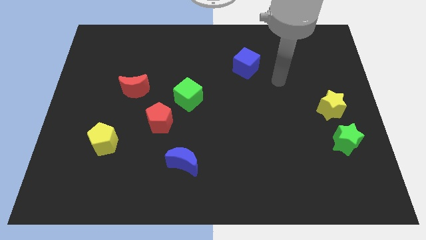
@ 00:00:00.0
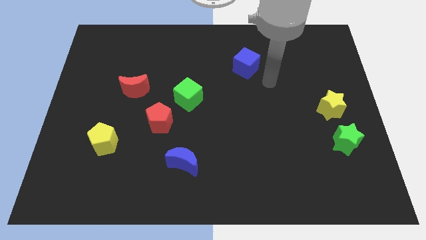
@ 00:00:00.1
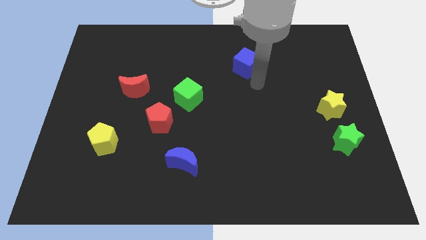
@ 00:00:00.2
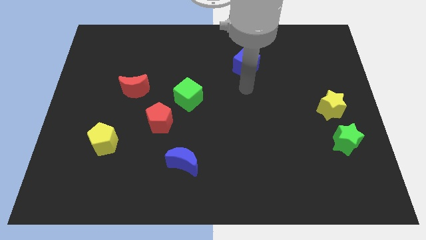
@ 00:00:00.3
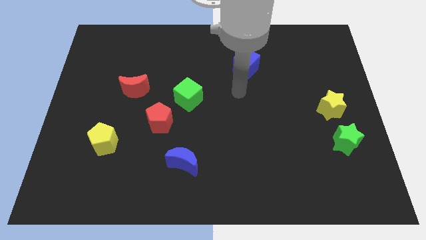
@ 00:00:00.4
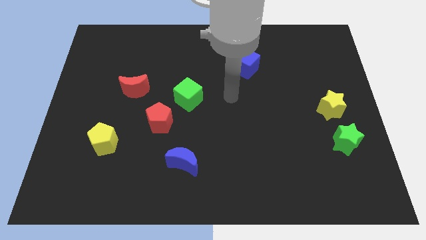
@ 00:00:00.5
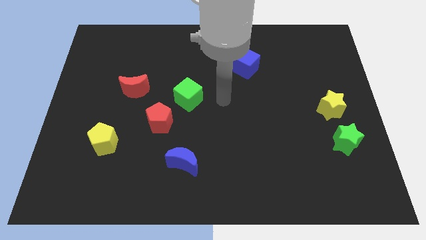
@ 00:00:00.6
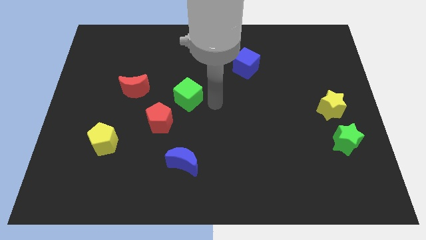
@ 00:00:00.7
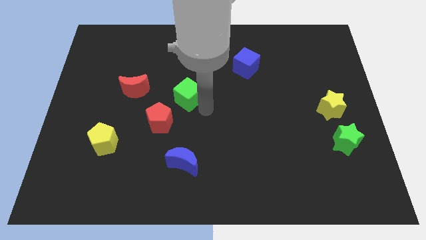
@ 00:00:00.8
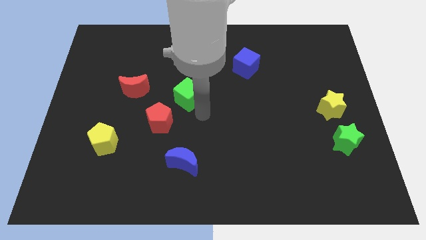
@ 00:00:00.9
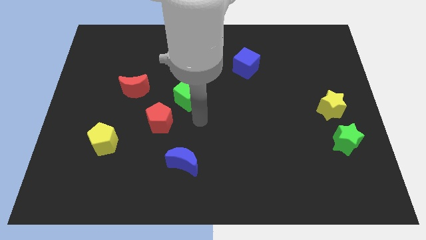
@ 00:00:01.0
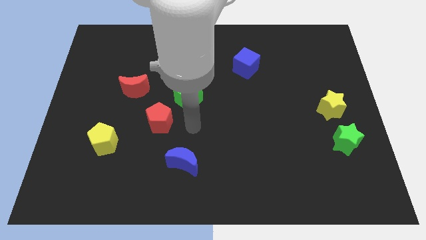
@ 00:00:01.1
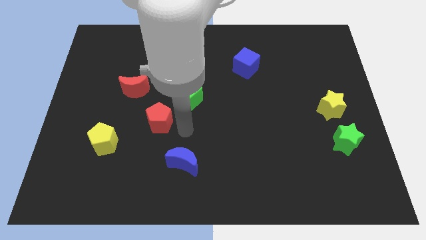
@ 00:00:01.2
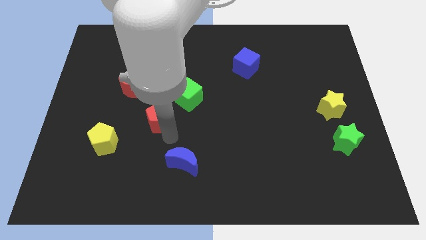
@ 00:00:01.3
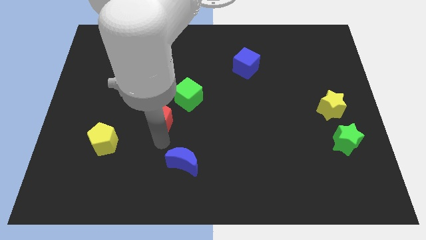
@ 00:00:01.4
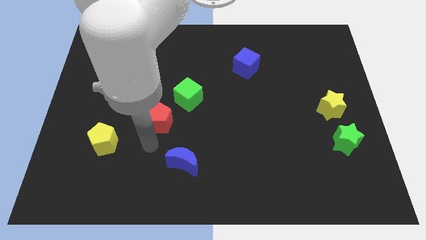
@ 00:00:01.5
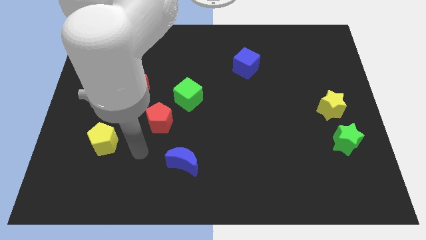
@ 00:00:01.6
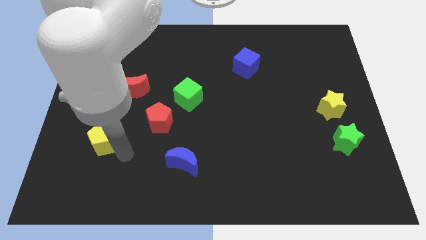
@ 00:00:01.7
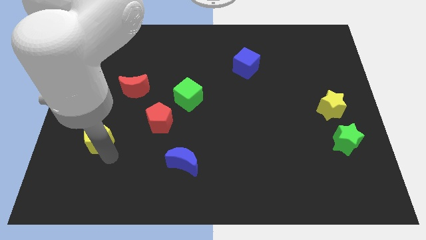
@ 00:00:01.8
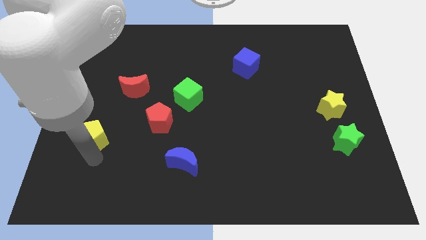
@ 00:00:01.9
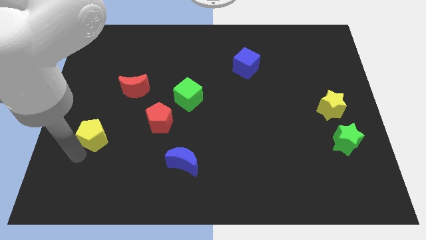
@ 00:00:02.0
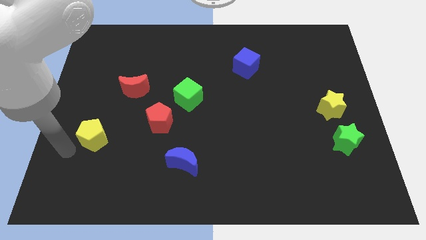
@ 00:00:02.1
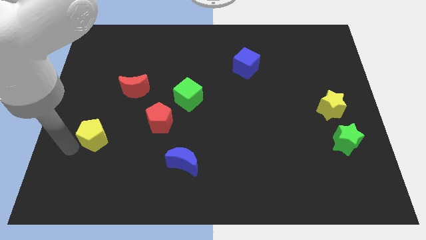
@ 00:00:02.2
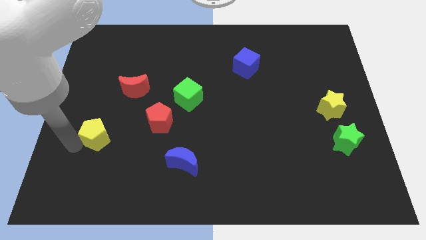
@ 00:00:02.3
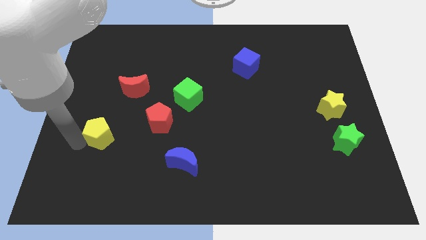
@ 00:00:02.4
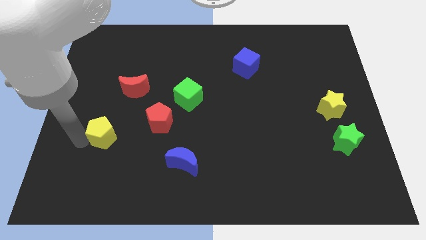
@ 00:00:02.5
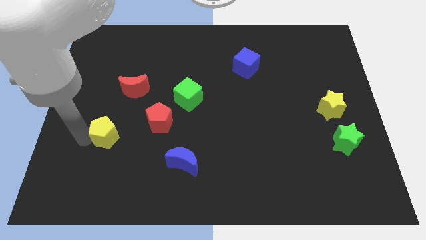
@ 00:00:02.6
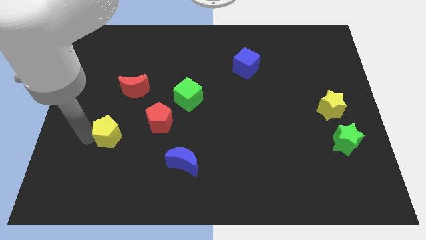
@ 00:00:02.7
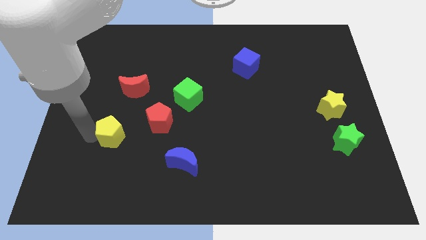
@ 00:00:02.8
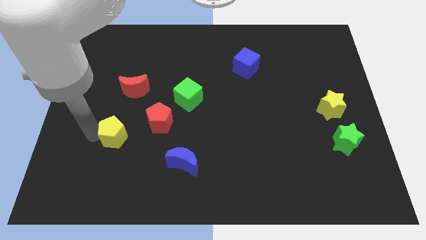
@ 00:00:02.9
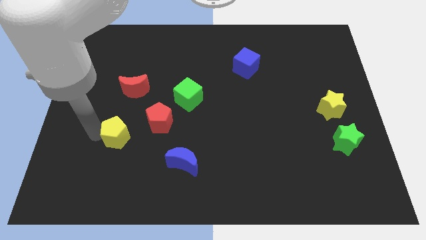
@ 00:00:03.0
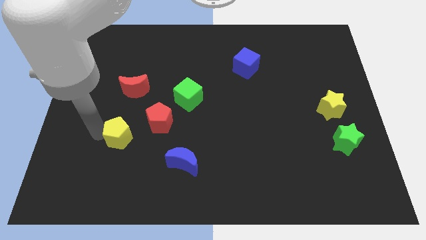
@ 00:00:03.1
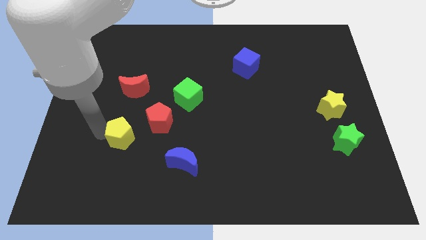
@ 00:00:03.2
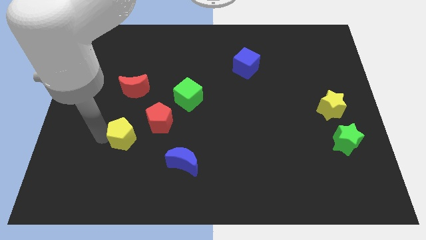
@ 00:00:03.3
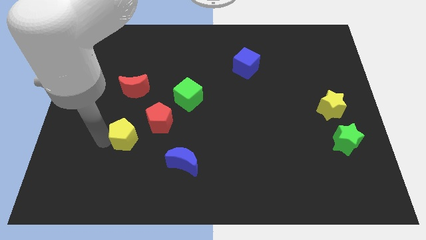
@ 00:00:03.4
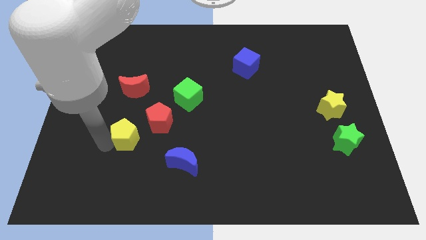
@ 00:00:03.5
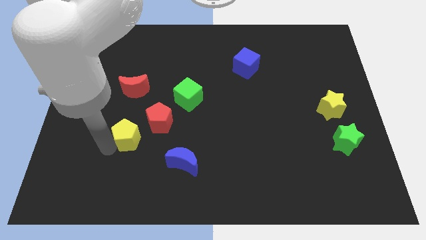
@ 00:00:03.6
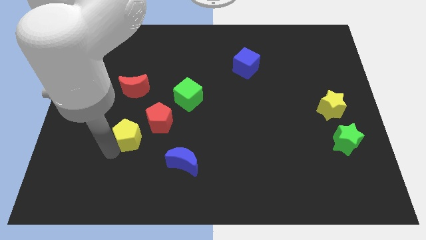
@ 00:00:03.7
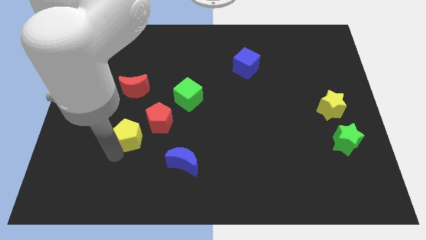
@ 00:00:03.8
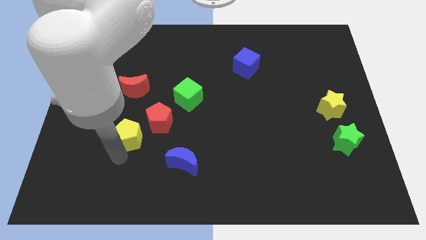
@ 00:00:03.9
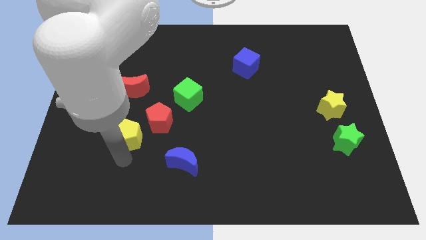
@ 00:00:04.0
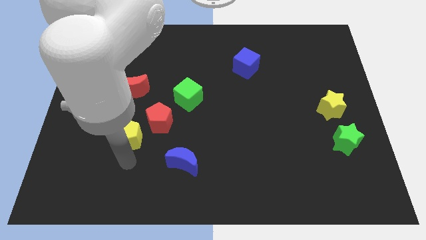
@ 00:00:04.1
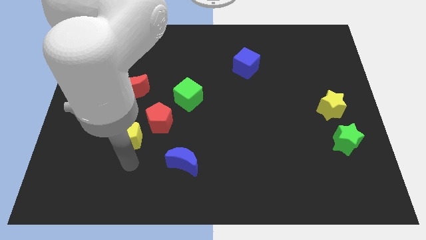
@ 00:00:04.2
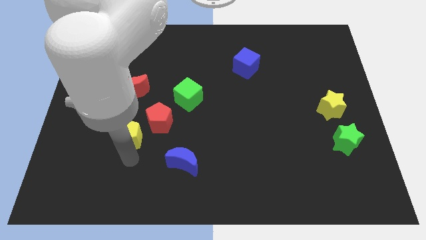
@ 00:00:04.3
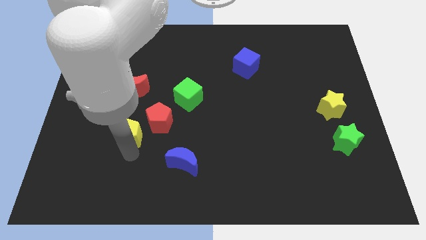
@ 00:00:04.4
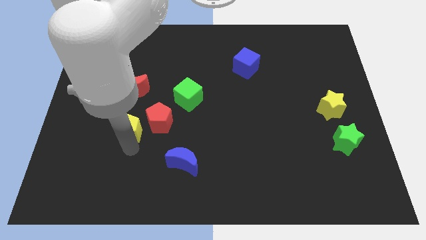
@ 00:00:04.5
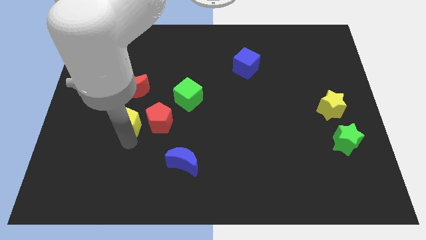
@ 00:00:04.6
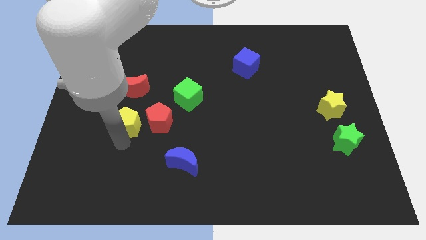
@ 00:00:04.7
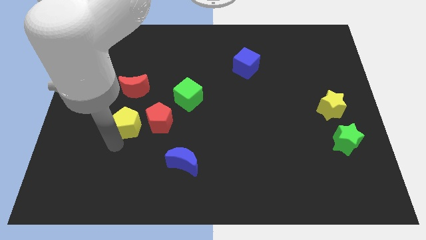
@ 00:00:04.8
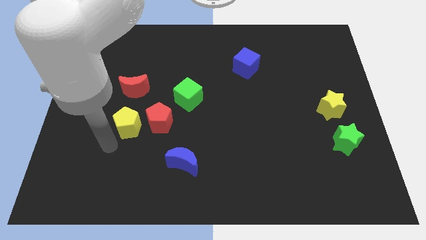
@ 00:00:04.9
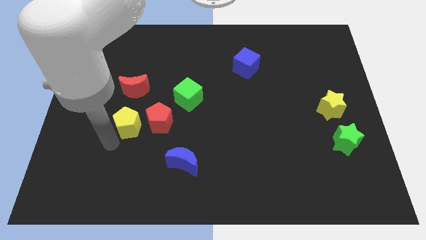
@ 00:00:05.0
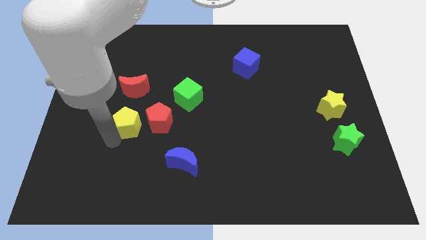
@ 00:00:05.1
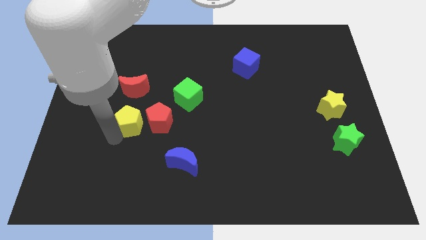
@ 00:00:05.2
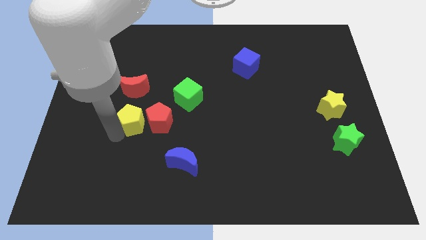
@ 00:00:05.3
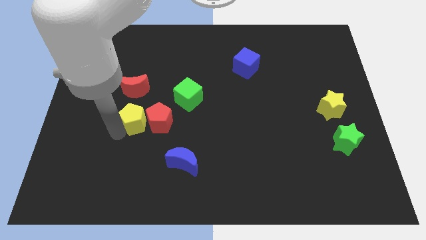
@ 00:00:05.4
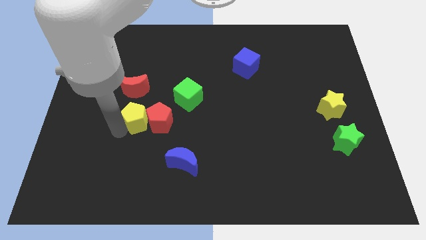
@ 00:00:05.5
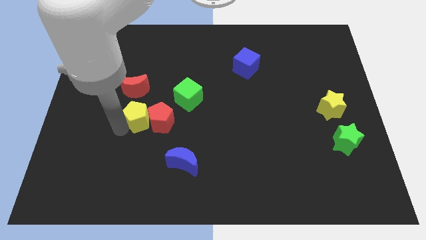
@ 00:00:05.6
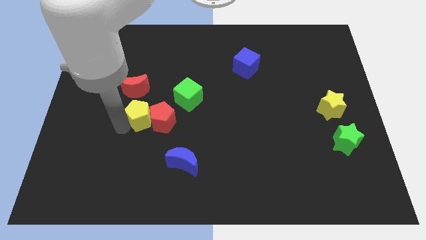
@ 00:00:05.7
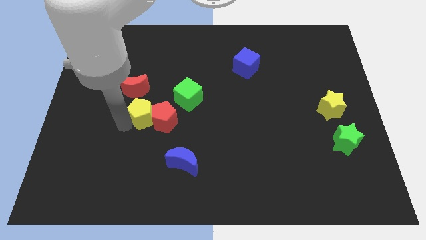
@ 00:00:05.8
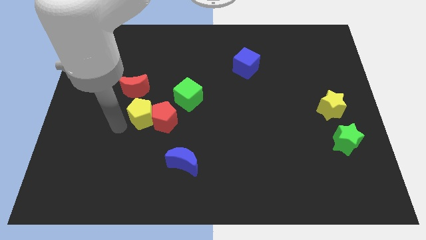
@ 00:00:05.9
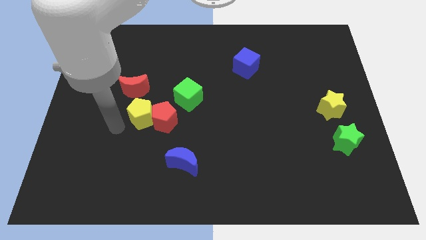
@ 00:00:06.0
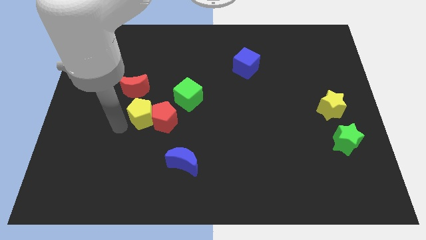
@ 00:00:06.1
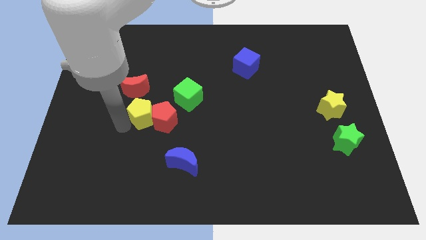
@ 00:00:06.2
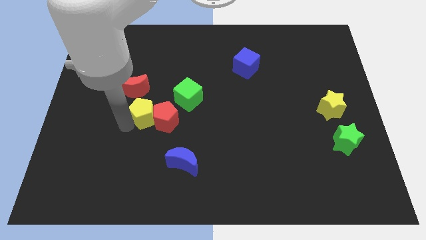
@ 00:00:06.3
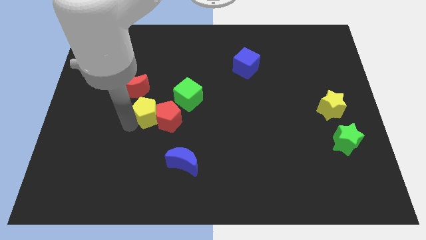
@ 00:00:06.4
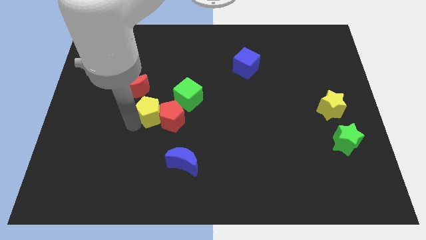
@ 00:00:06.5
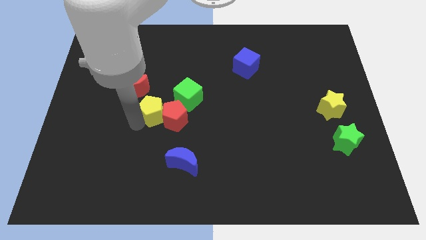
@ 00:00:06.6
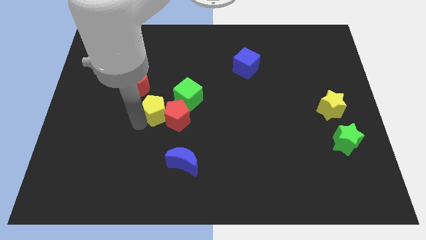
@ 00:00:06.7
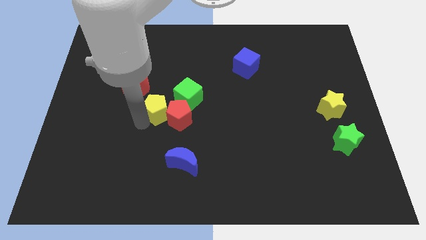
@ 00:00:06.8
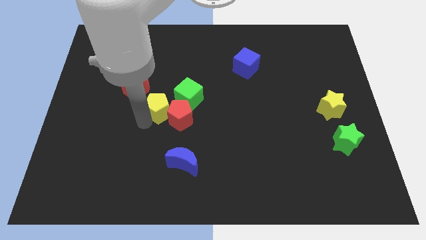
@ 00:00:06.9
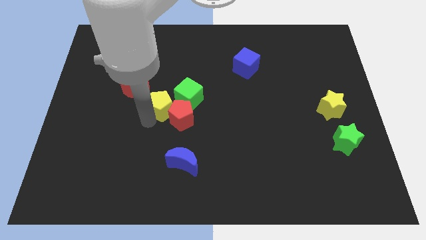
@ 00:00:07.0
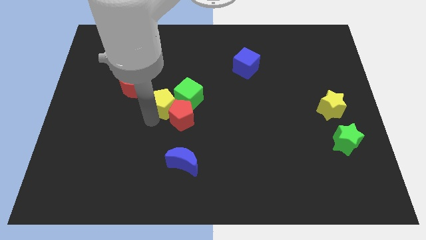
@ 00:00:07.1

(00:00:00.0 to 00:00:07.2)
move the yellow pentagon next to the green cube
